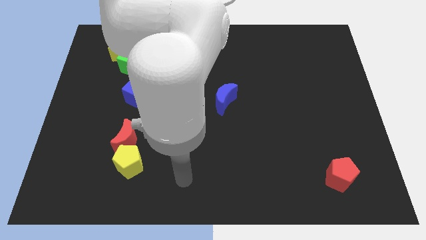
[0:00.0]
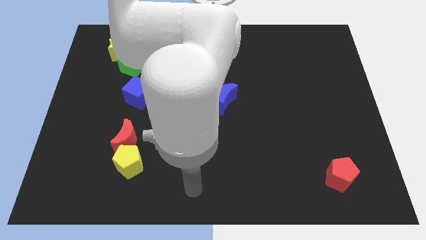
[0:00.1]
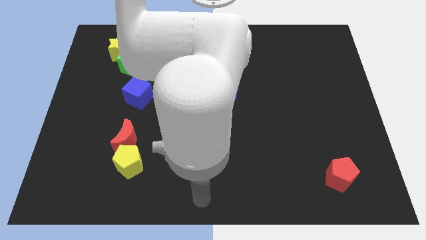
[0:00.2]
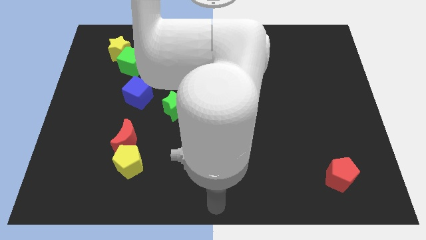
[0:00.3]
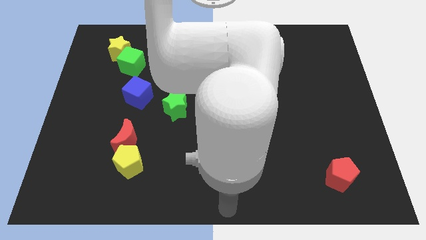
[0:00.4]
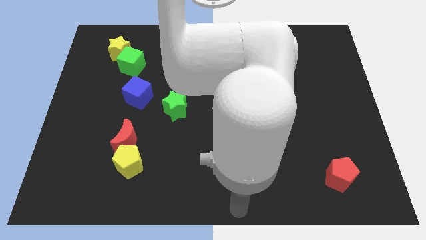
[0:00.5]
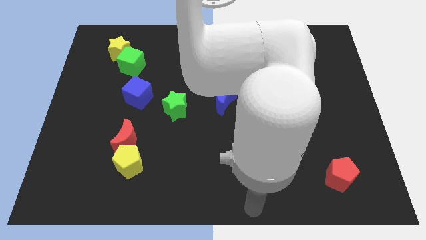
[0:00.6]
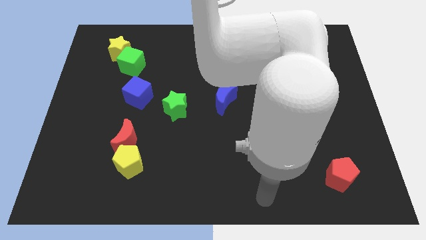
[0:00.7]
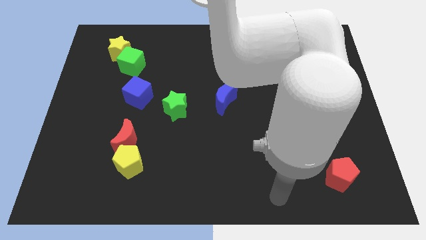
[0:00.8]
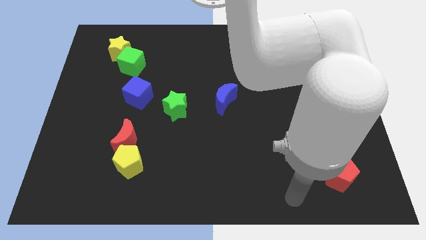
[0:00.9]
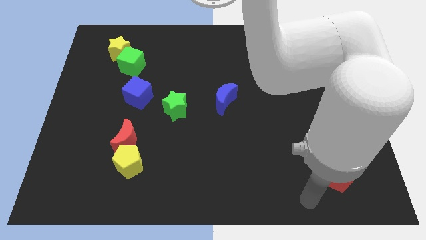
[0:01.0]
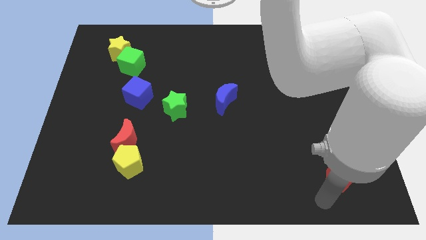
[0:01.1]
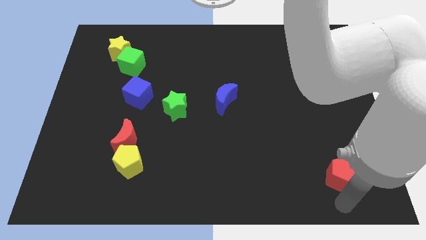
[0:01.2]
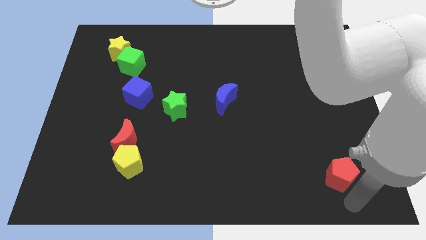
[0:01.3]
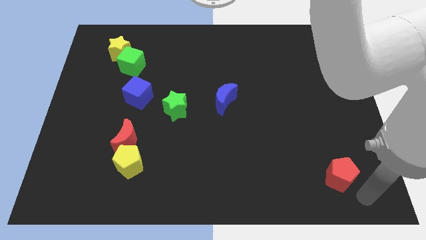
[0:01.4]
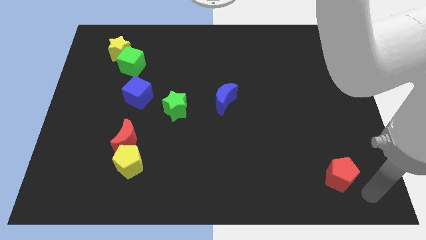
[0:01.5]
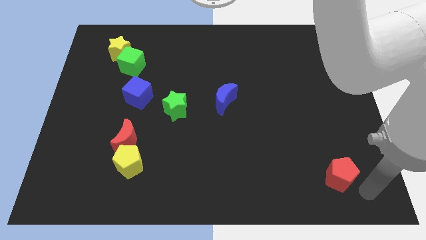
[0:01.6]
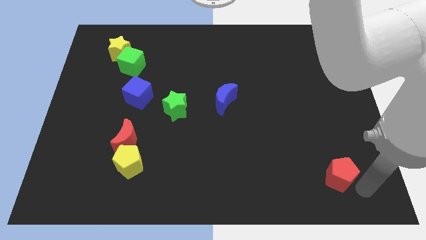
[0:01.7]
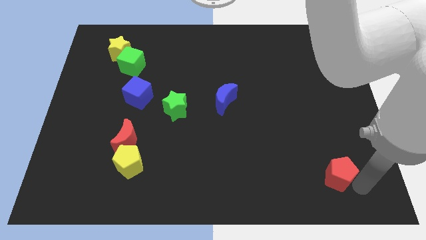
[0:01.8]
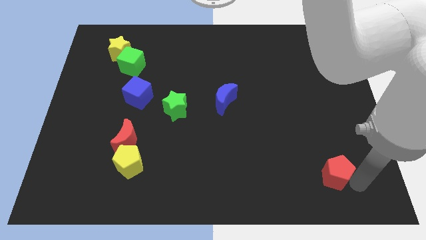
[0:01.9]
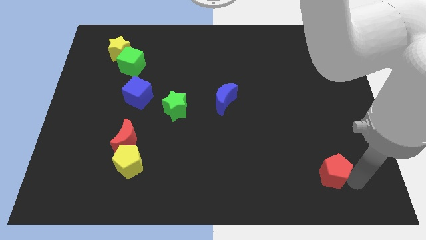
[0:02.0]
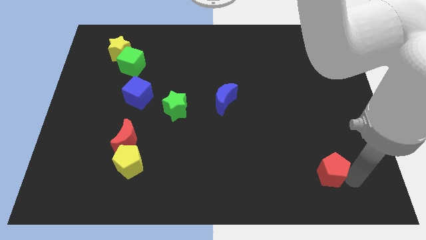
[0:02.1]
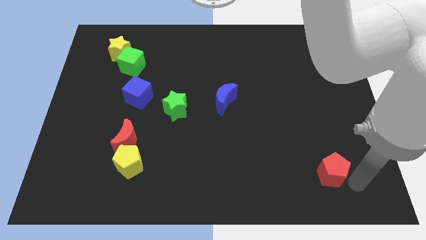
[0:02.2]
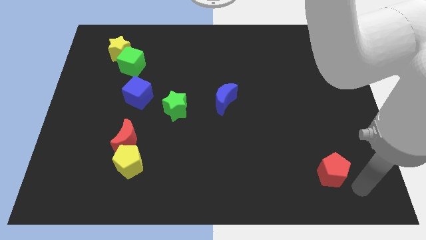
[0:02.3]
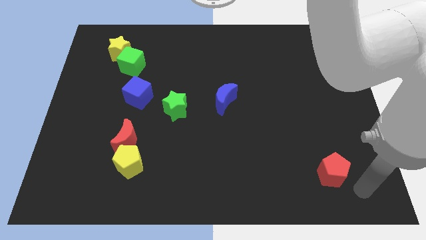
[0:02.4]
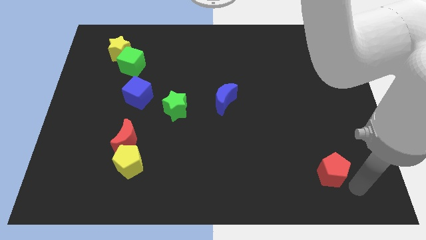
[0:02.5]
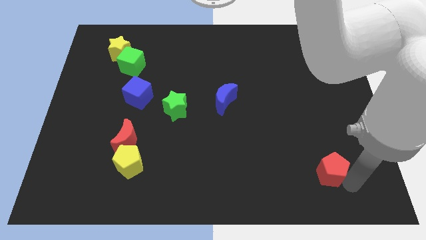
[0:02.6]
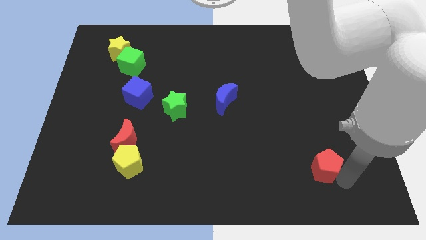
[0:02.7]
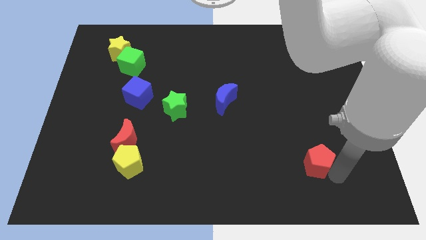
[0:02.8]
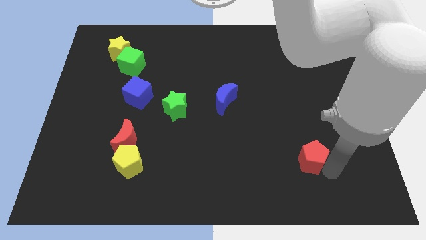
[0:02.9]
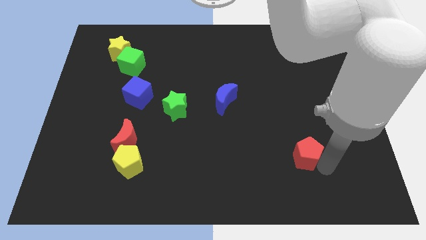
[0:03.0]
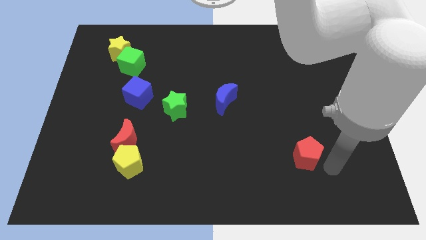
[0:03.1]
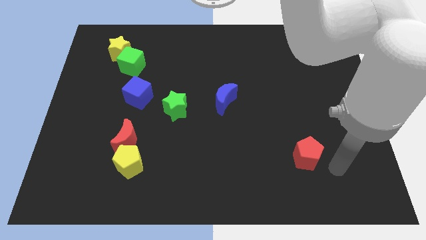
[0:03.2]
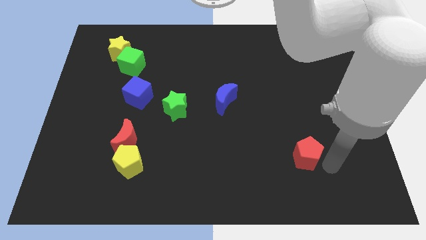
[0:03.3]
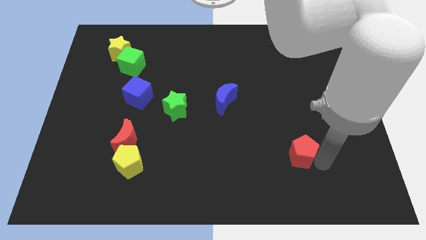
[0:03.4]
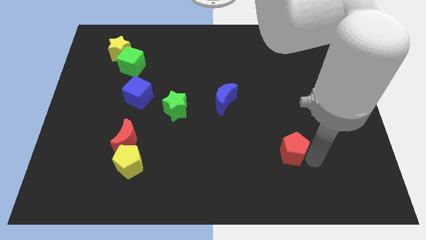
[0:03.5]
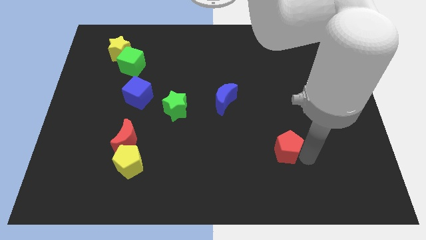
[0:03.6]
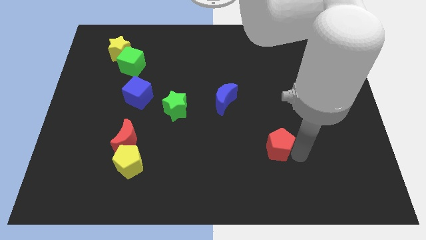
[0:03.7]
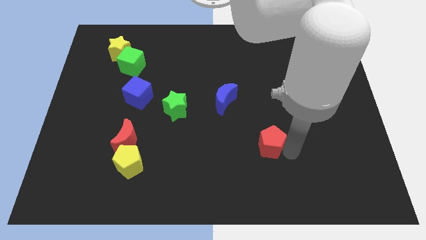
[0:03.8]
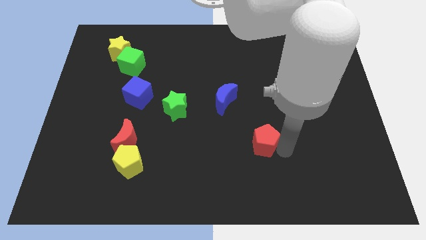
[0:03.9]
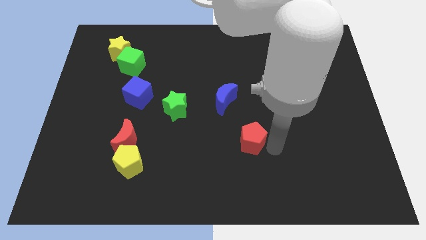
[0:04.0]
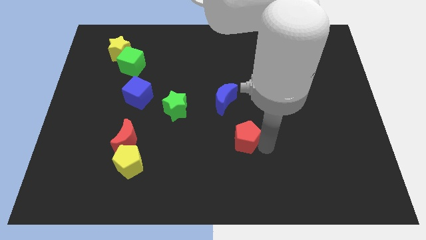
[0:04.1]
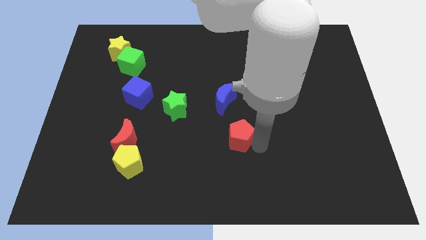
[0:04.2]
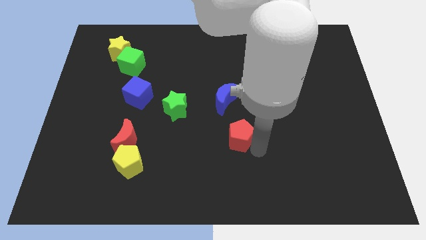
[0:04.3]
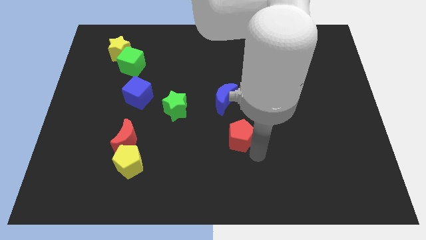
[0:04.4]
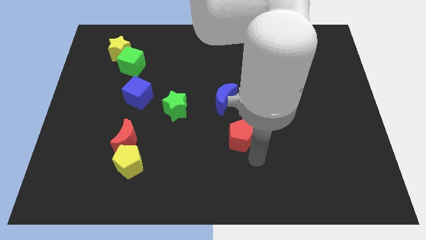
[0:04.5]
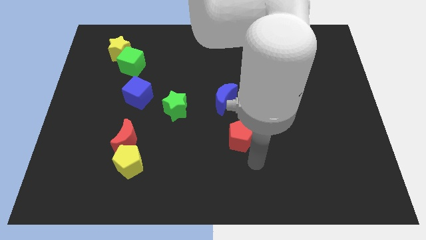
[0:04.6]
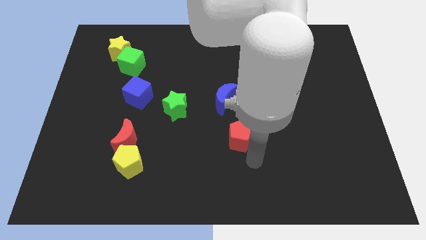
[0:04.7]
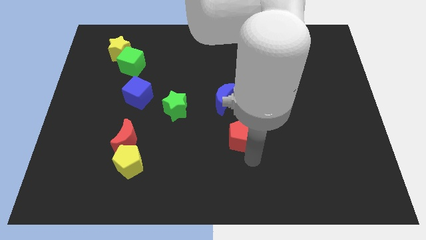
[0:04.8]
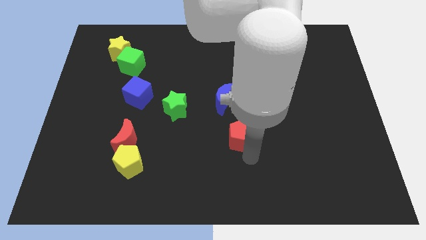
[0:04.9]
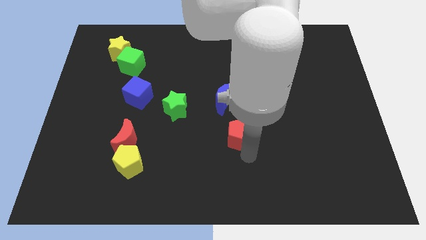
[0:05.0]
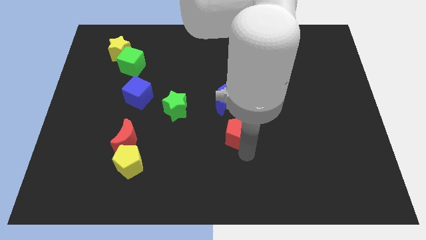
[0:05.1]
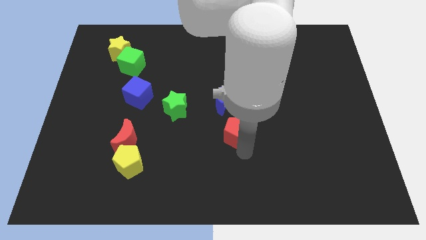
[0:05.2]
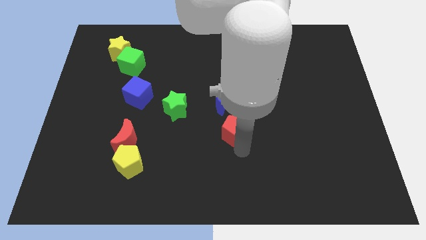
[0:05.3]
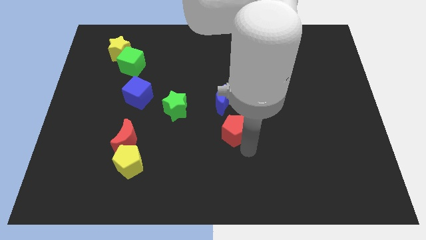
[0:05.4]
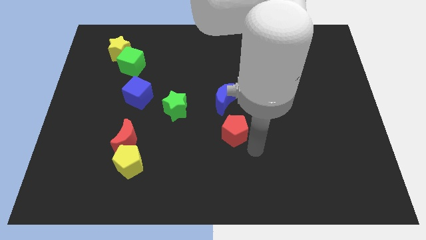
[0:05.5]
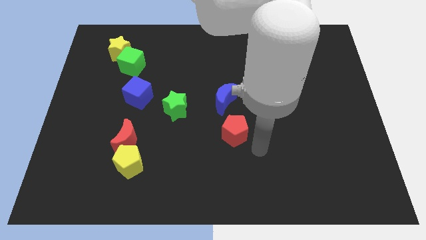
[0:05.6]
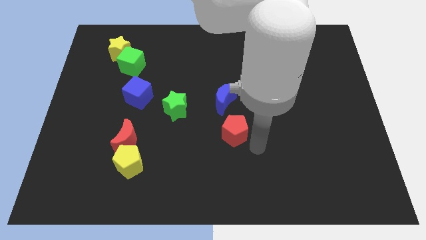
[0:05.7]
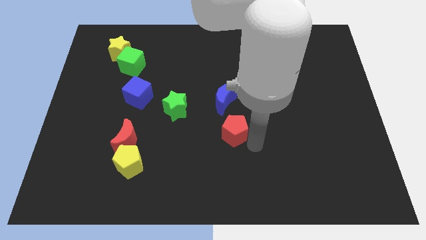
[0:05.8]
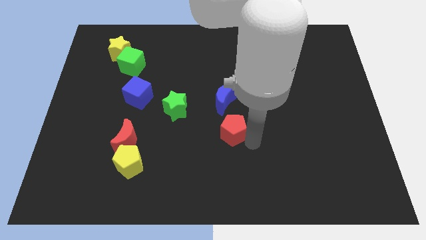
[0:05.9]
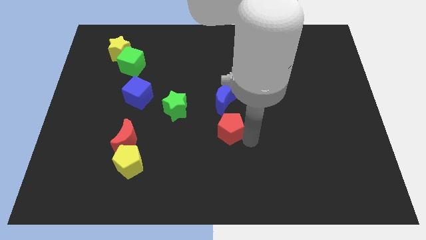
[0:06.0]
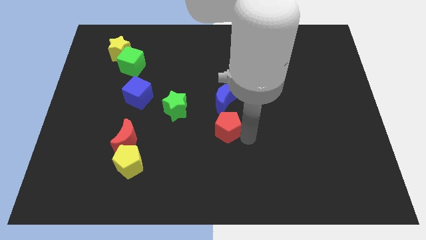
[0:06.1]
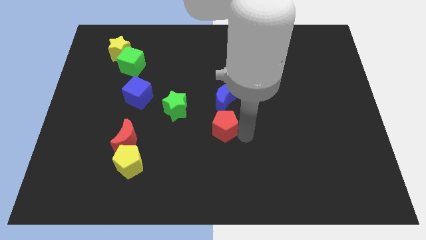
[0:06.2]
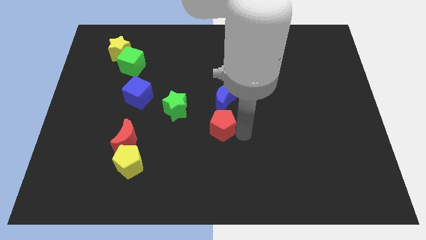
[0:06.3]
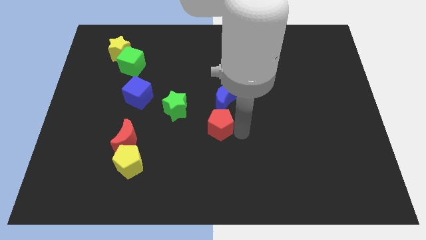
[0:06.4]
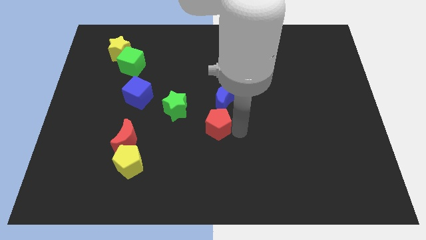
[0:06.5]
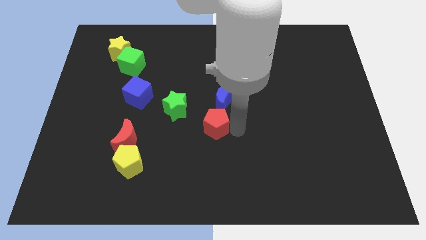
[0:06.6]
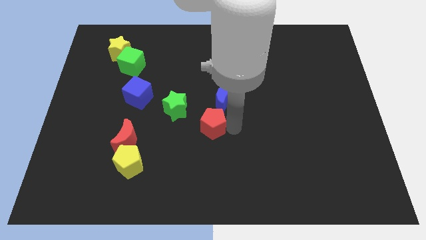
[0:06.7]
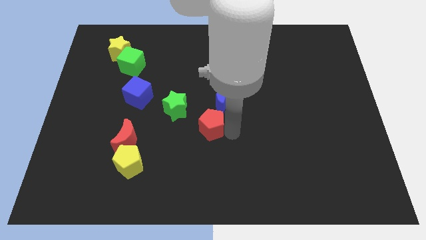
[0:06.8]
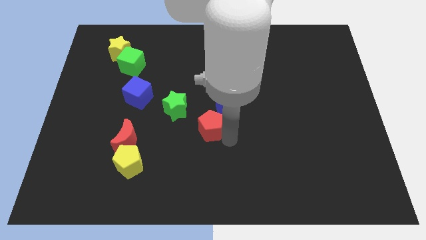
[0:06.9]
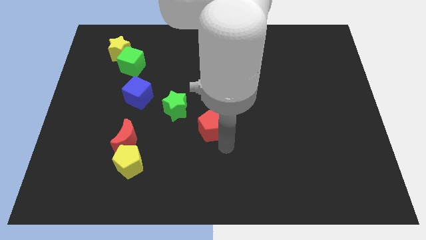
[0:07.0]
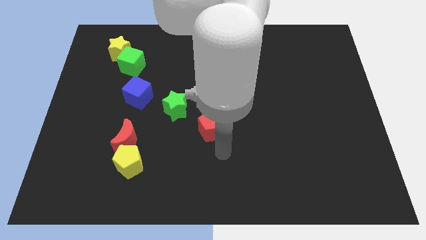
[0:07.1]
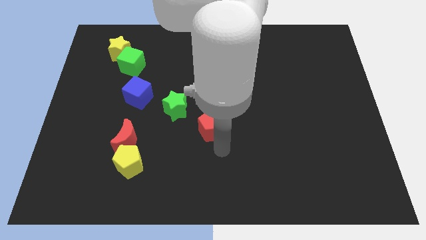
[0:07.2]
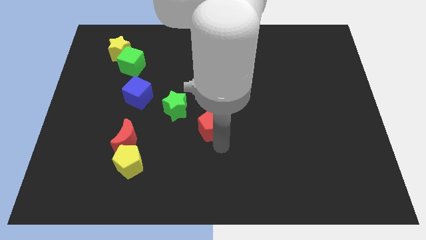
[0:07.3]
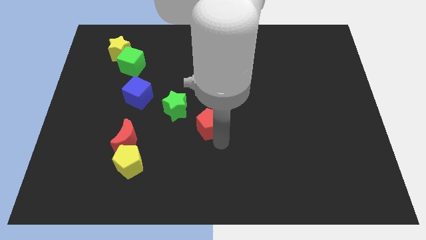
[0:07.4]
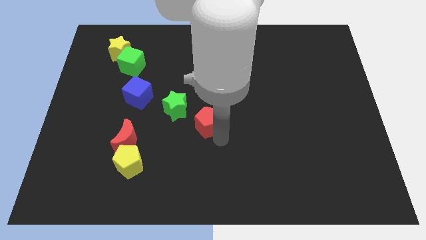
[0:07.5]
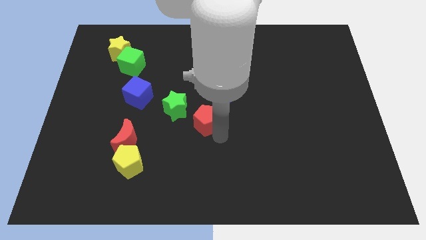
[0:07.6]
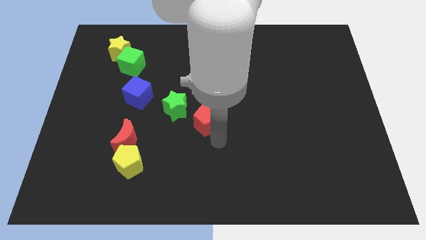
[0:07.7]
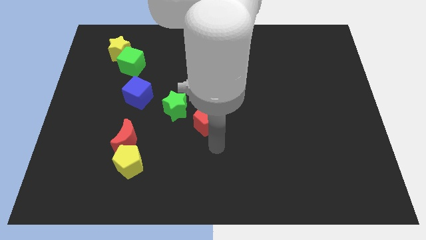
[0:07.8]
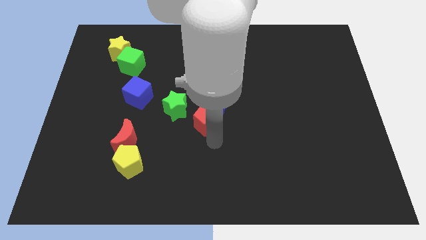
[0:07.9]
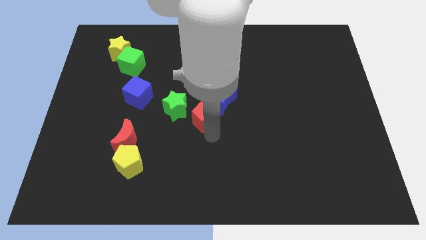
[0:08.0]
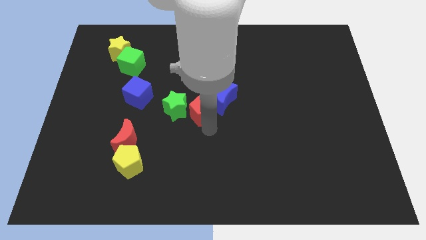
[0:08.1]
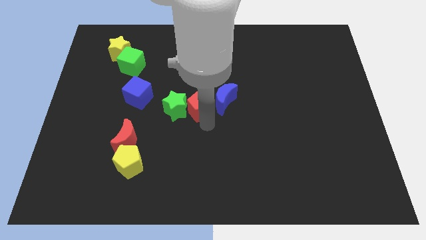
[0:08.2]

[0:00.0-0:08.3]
put the red pentagon to the top right of the green star
